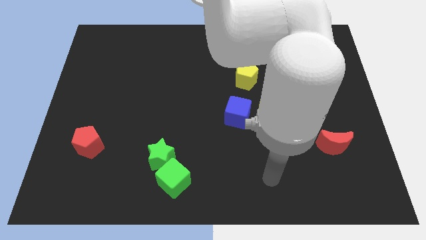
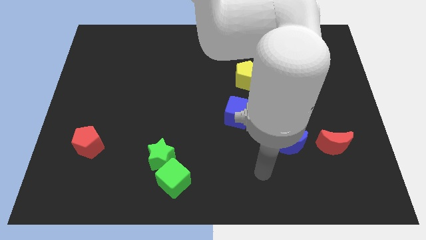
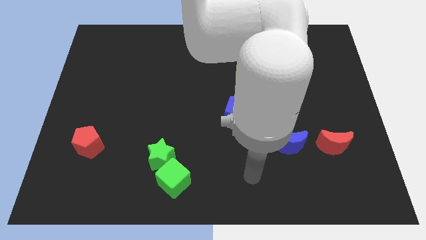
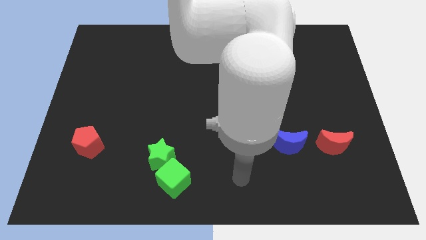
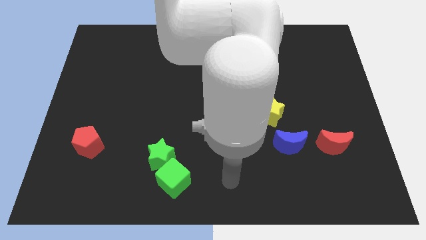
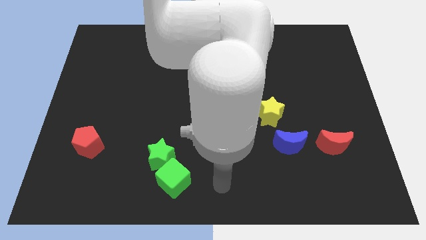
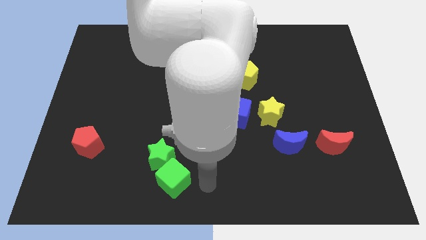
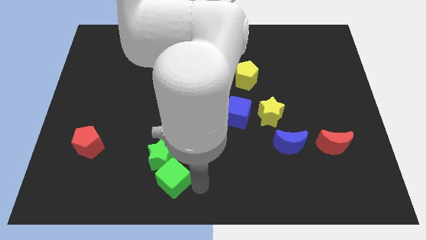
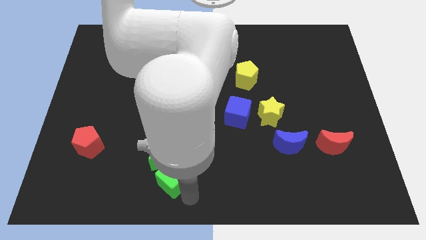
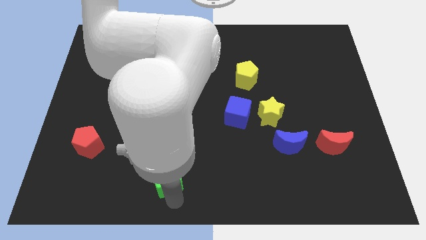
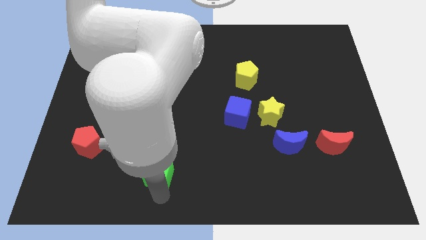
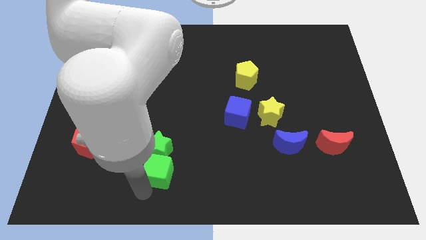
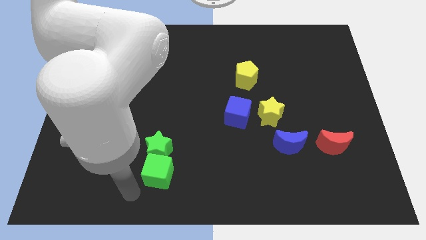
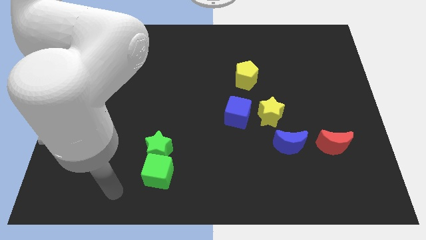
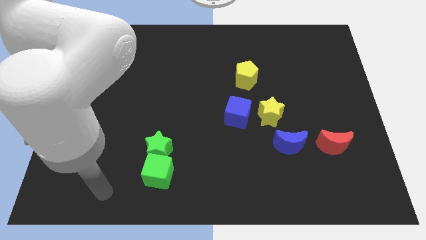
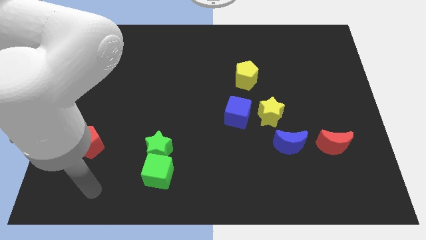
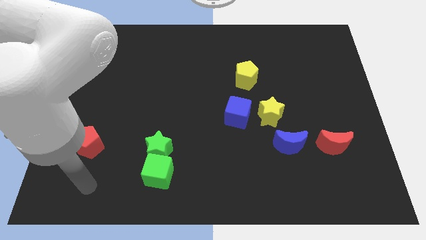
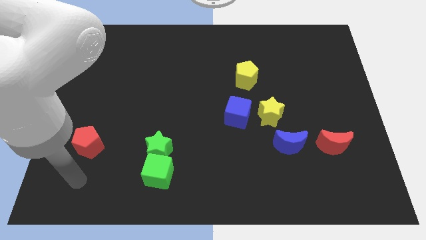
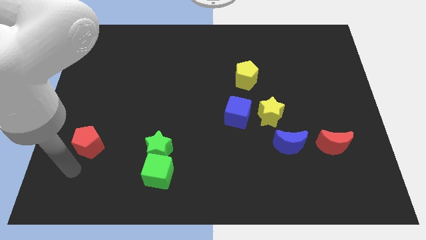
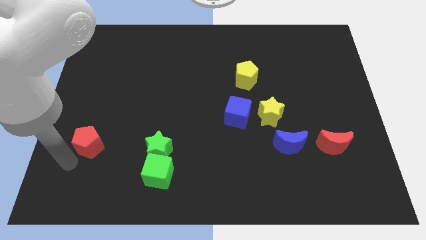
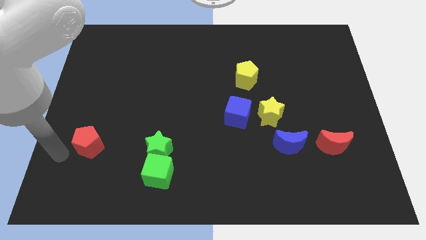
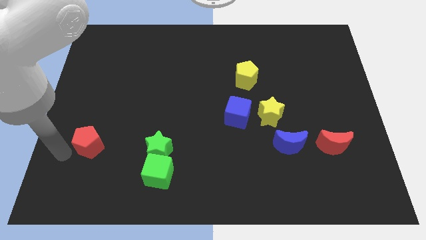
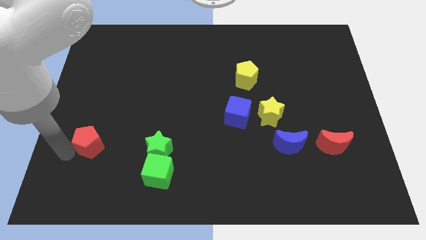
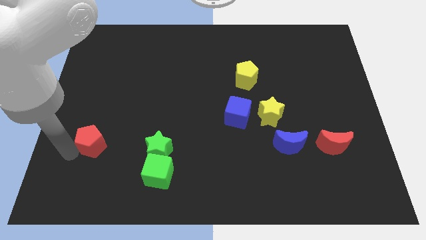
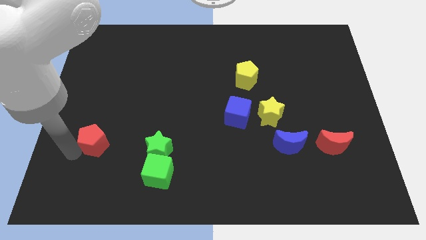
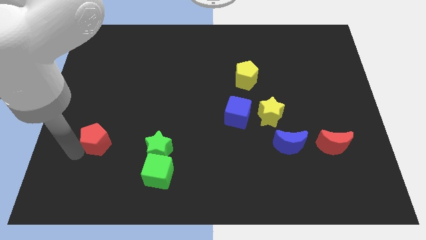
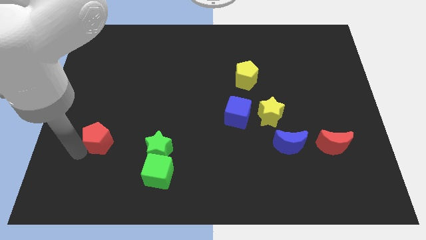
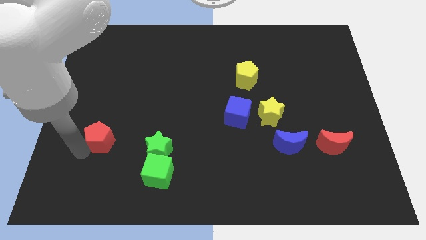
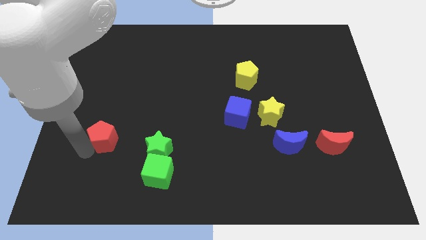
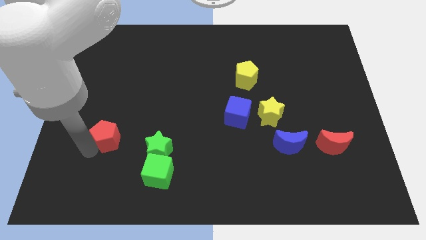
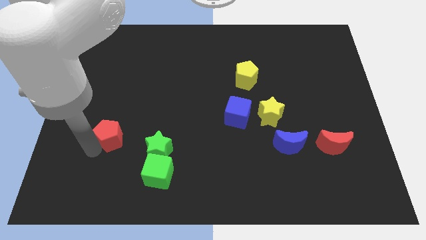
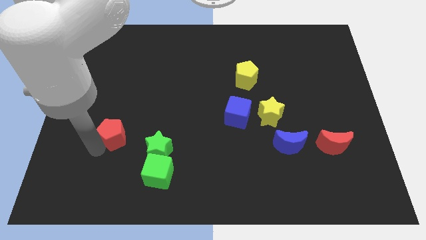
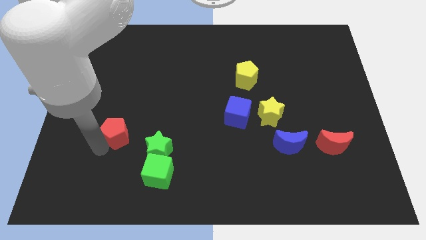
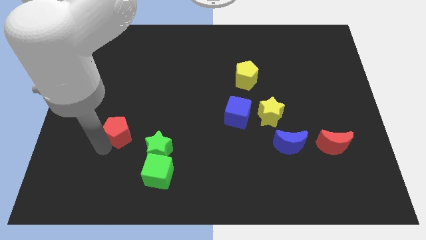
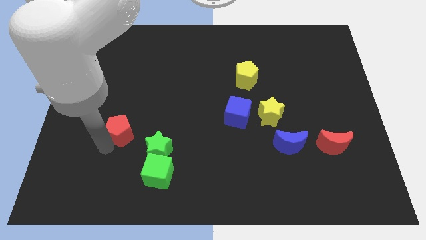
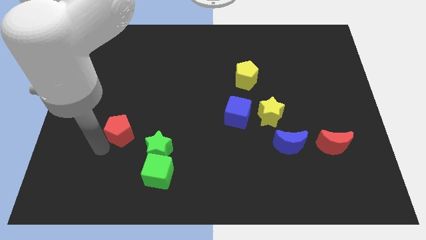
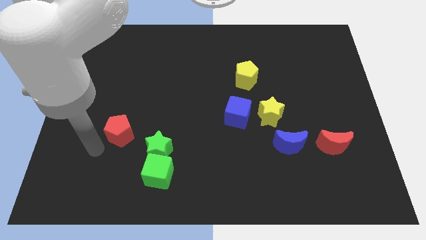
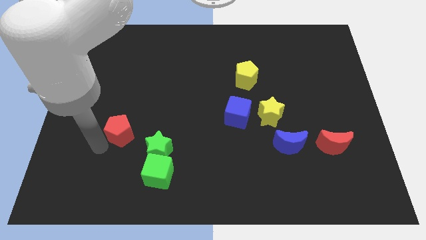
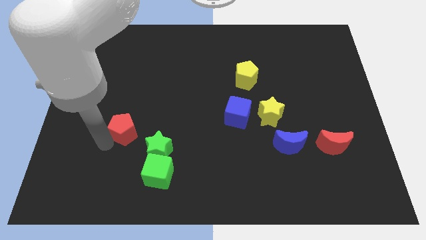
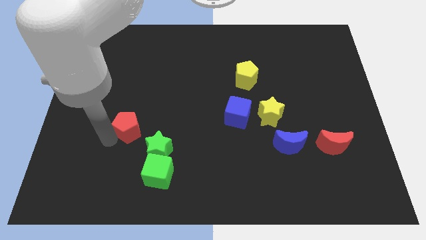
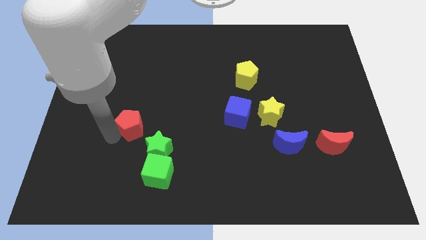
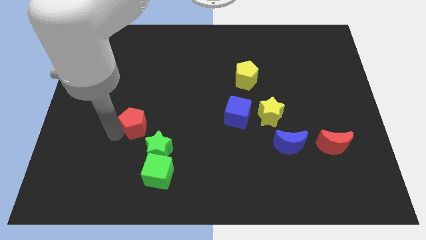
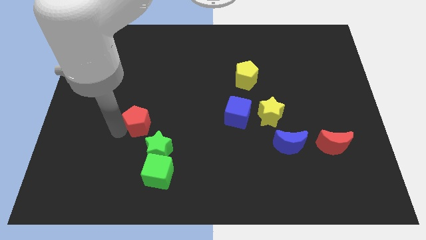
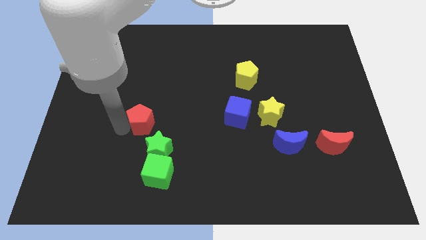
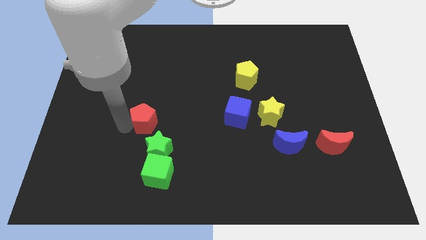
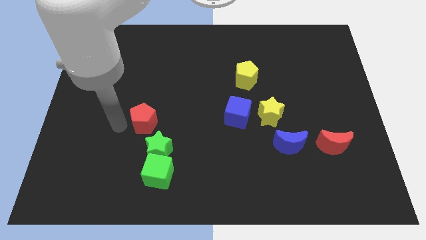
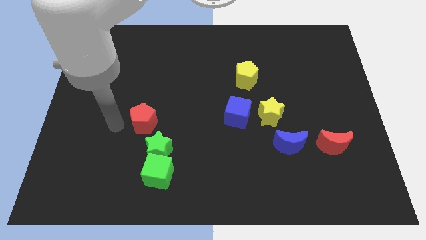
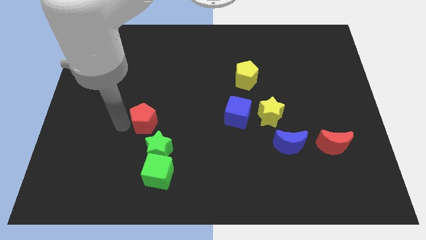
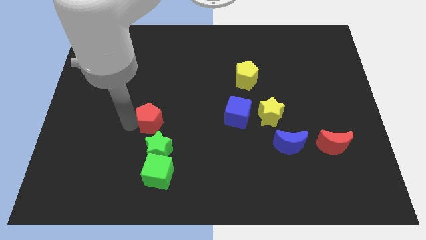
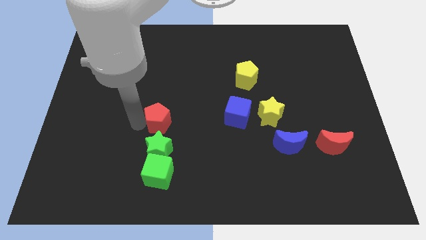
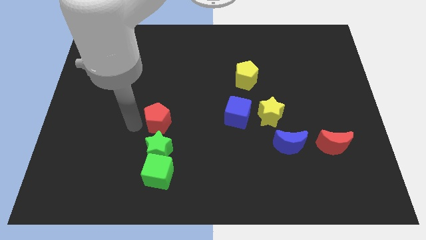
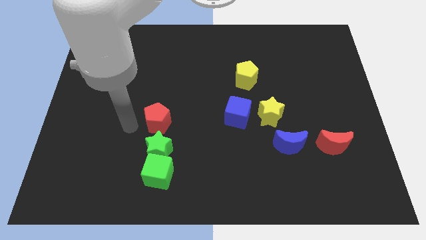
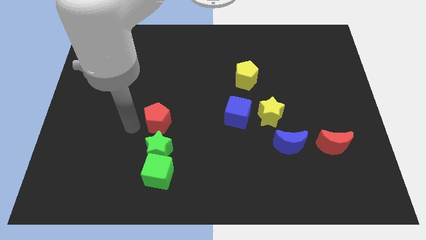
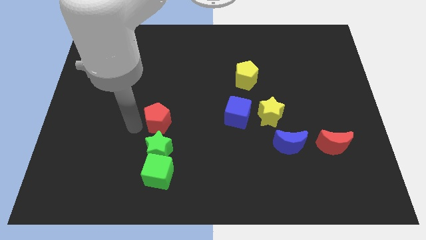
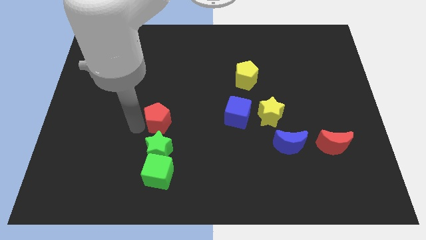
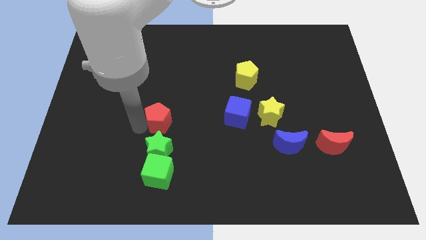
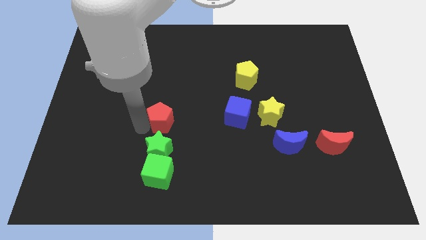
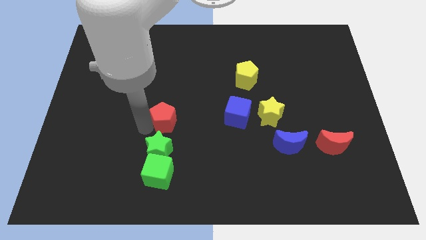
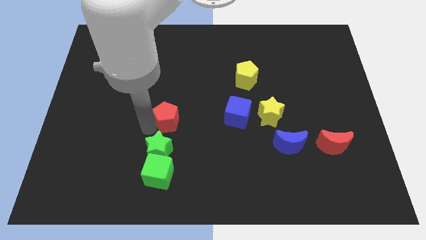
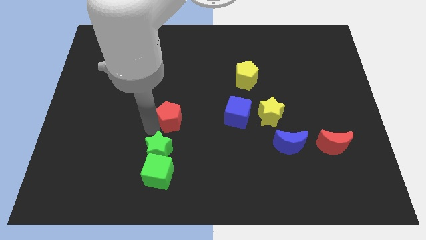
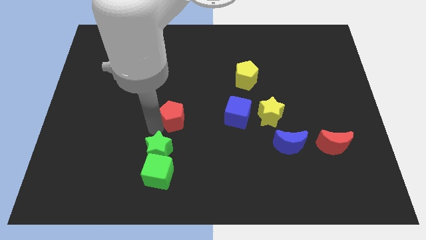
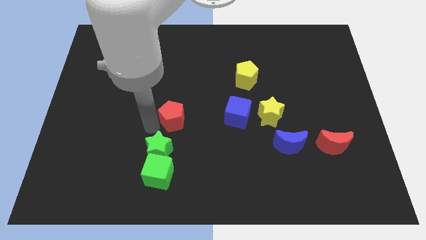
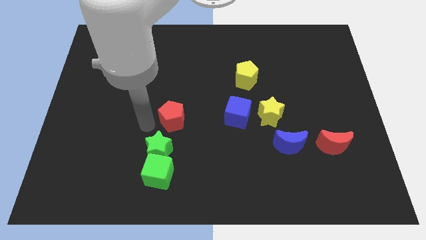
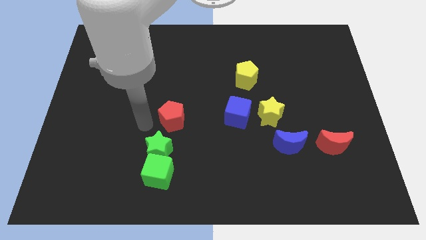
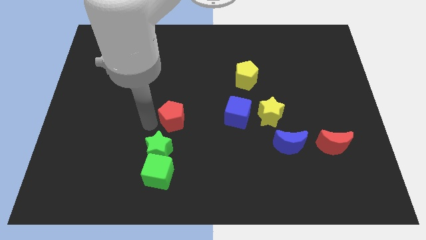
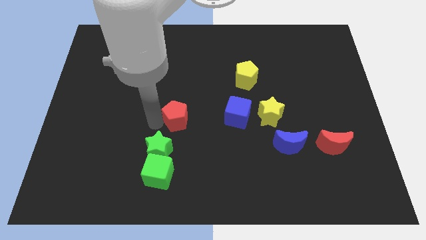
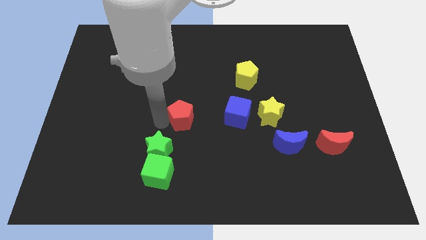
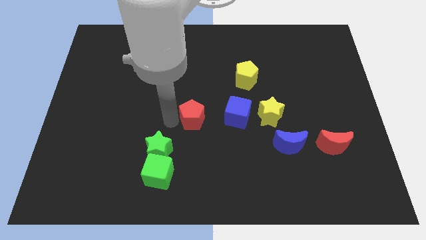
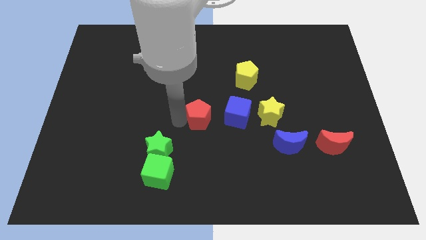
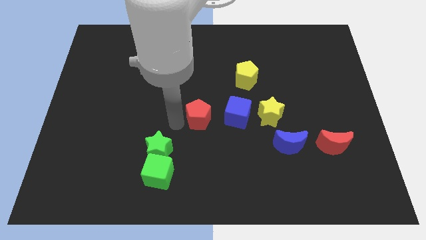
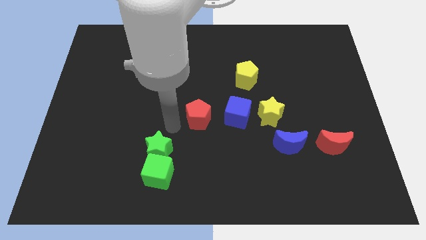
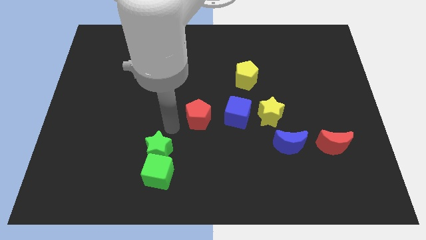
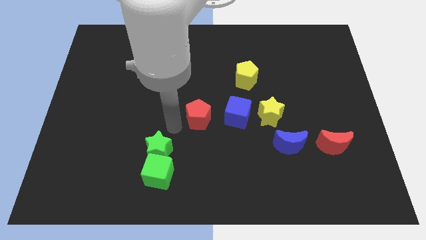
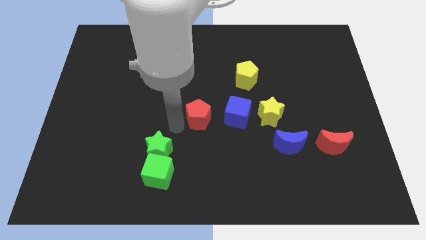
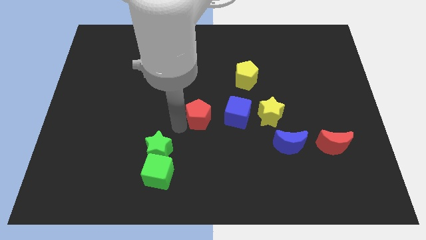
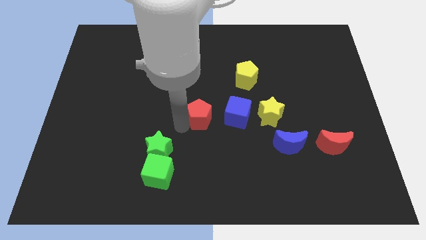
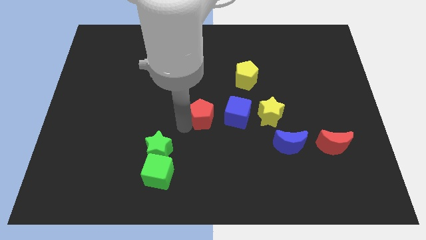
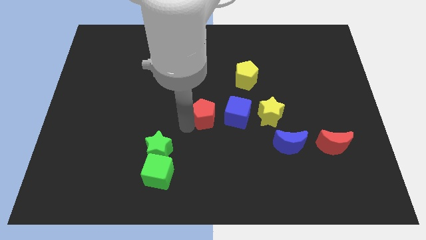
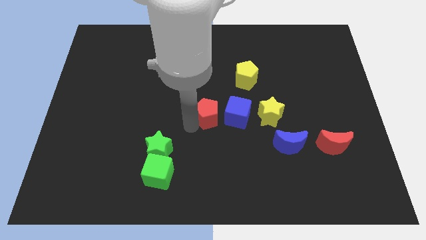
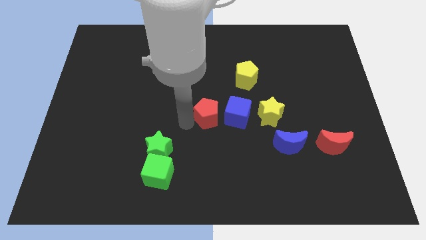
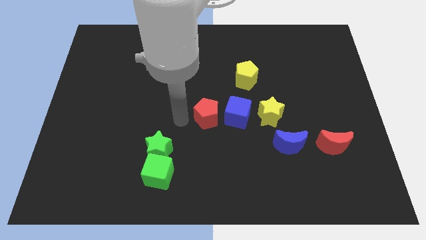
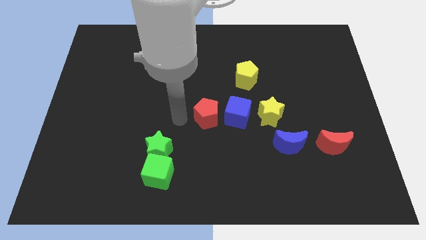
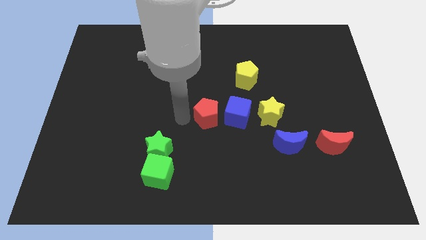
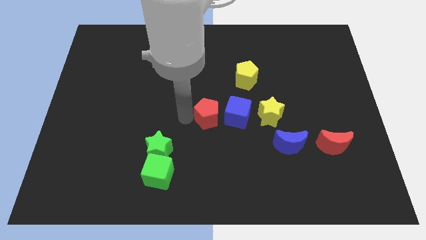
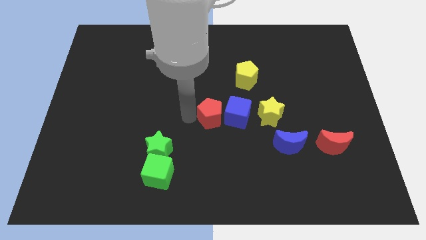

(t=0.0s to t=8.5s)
push the red pentagon close to the blue cube
